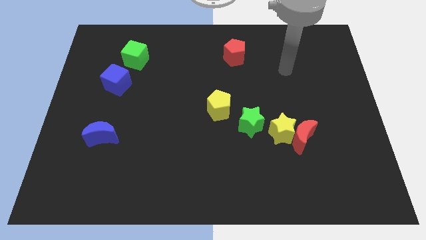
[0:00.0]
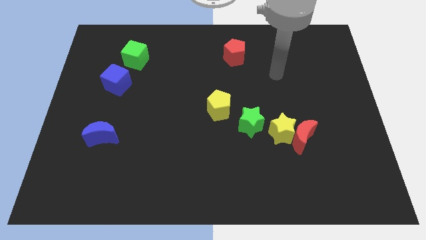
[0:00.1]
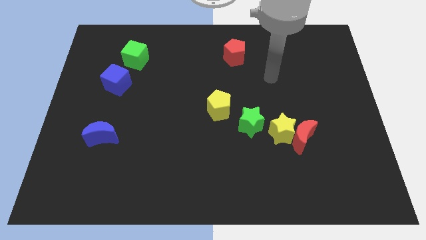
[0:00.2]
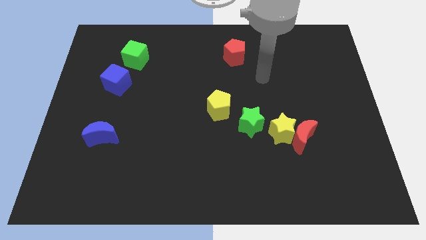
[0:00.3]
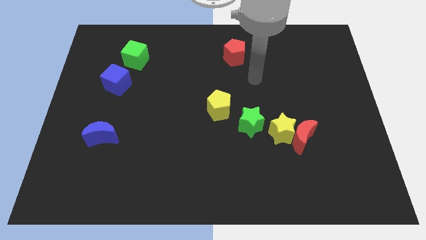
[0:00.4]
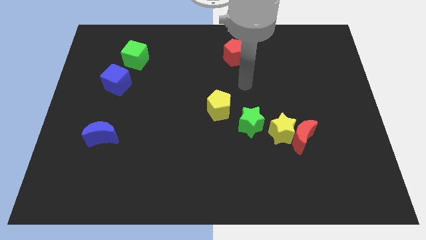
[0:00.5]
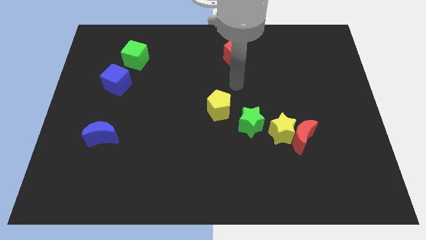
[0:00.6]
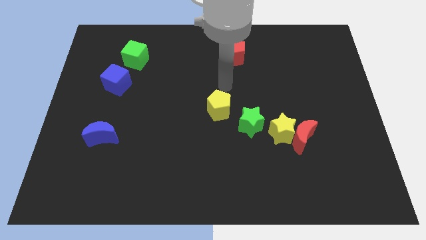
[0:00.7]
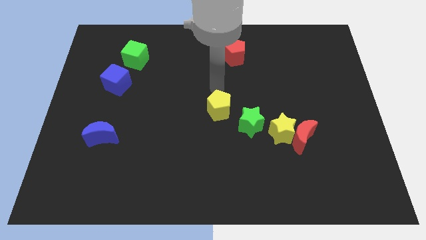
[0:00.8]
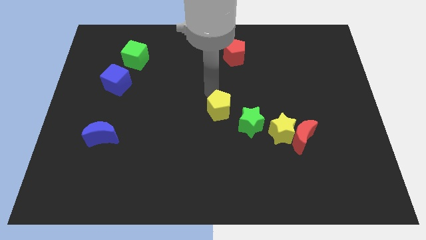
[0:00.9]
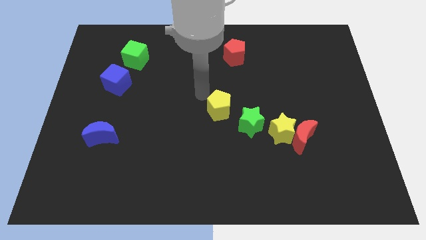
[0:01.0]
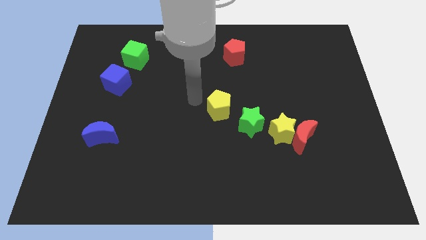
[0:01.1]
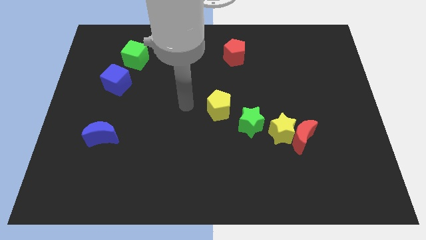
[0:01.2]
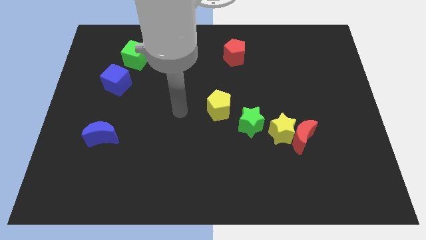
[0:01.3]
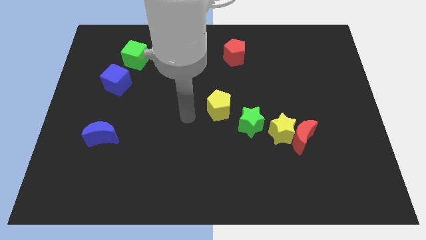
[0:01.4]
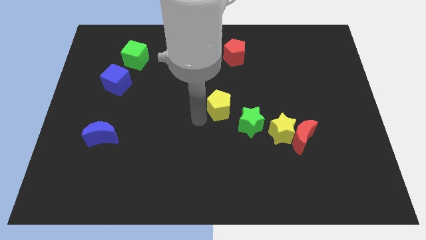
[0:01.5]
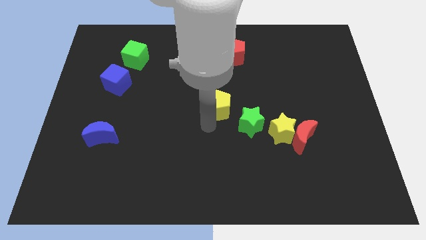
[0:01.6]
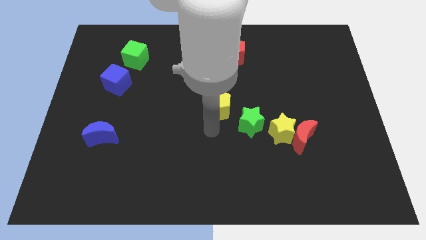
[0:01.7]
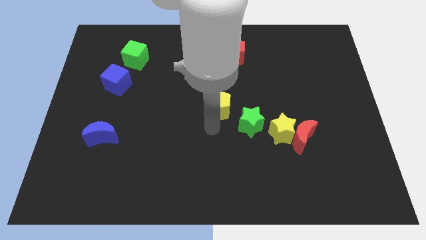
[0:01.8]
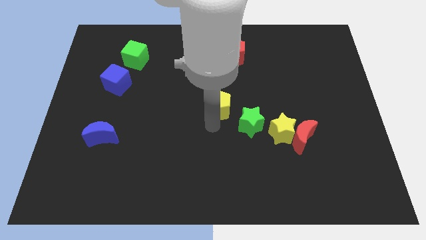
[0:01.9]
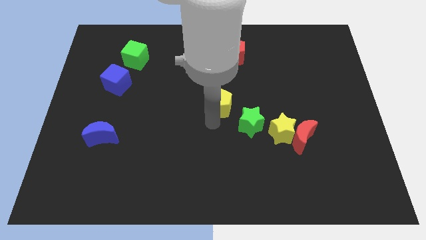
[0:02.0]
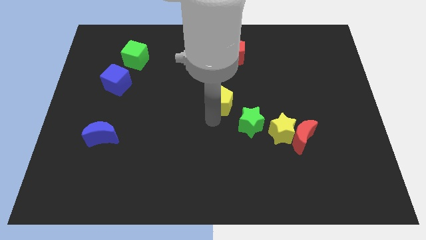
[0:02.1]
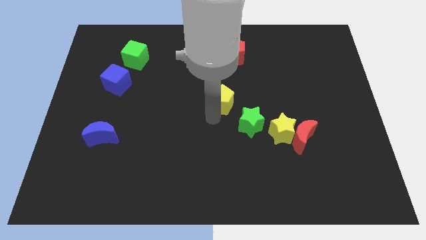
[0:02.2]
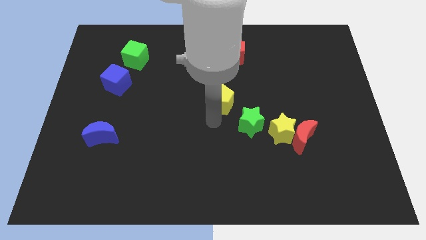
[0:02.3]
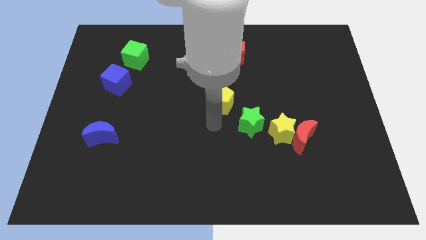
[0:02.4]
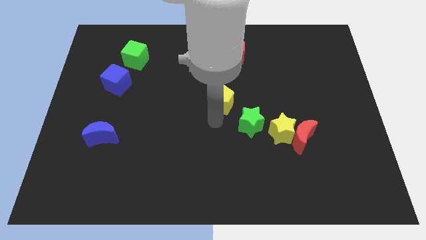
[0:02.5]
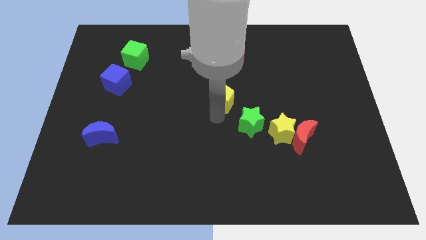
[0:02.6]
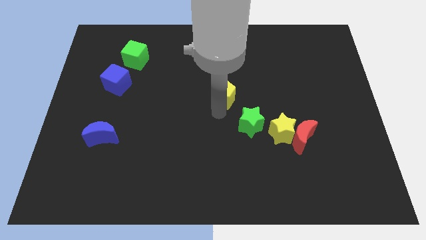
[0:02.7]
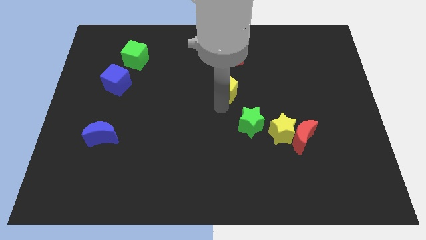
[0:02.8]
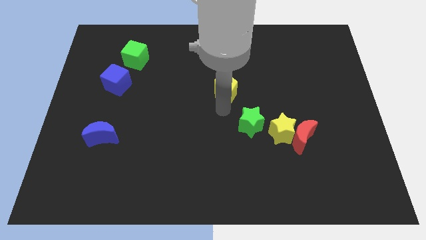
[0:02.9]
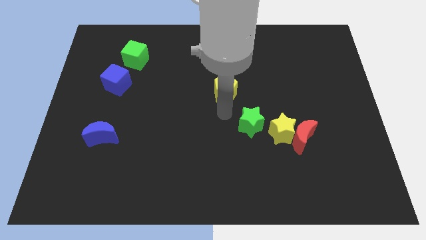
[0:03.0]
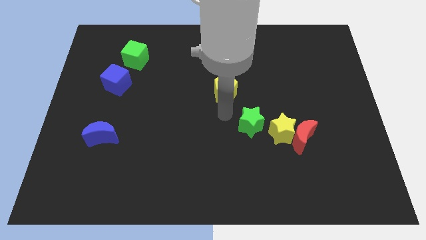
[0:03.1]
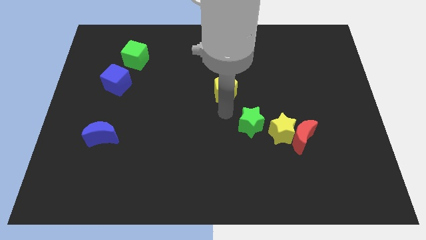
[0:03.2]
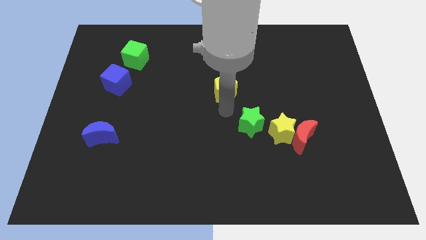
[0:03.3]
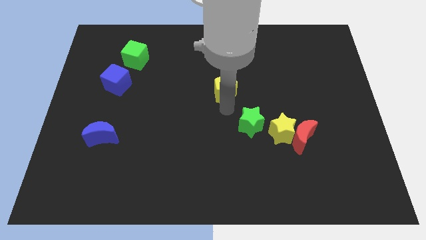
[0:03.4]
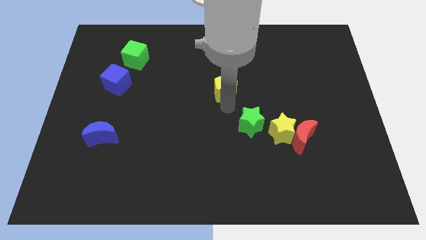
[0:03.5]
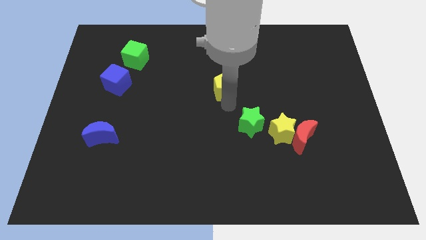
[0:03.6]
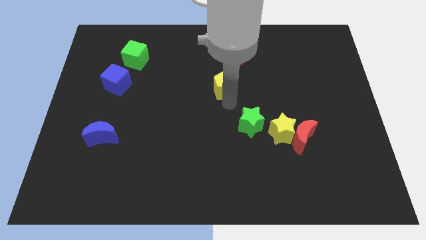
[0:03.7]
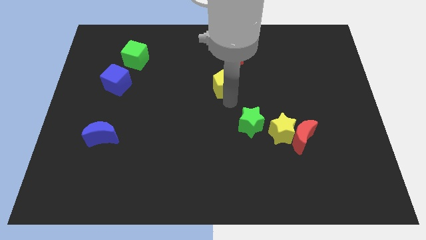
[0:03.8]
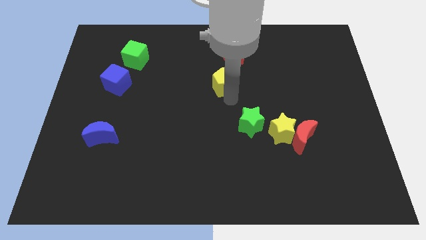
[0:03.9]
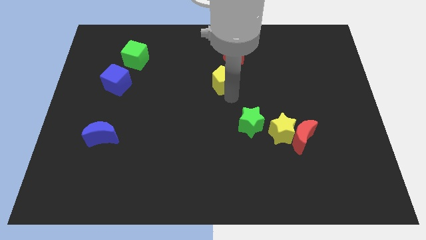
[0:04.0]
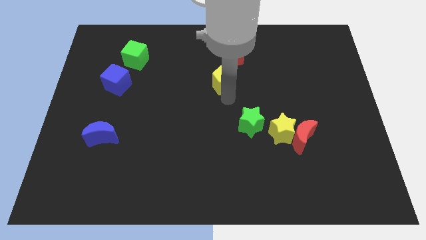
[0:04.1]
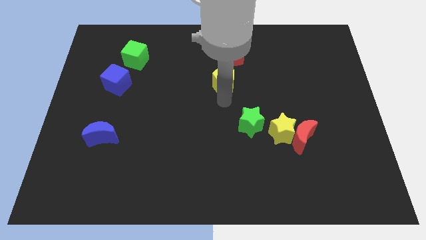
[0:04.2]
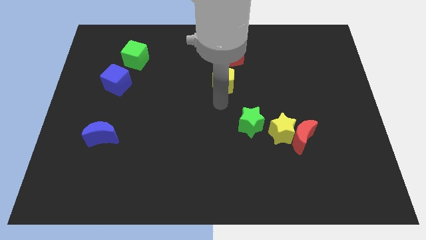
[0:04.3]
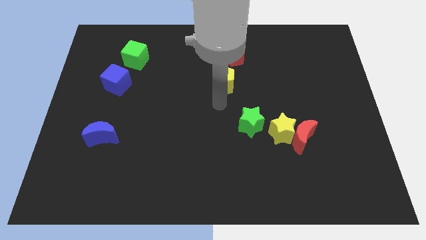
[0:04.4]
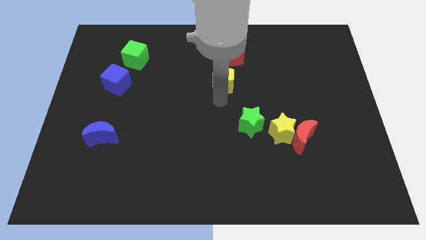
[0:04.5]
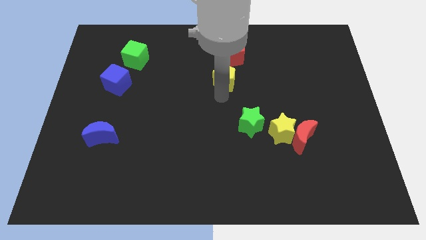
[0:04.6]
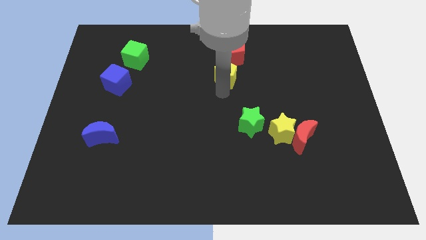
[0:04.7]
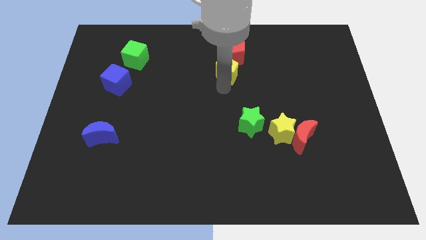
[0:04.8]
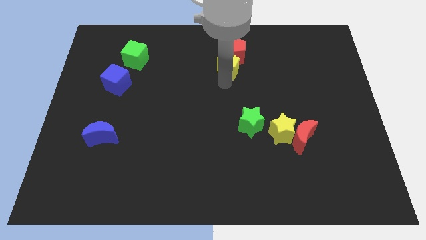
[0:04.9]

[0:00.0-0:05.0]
move the yellow pentagon close to the red pentagon

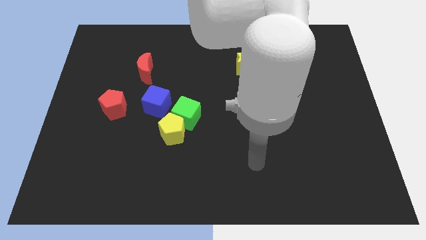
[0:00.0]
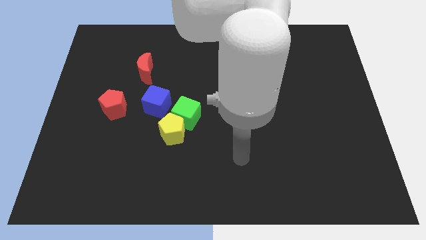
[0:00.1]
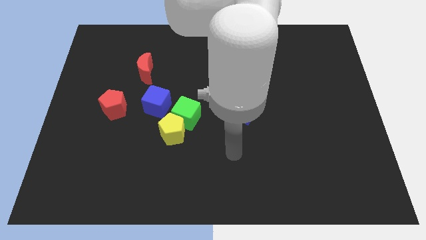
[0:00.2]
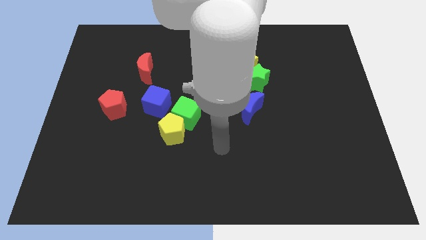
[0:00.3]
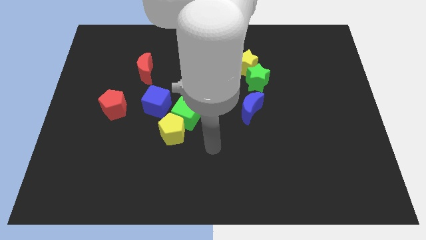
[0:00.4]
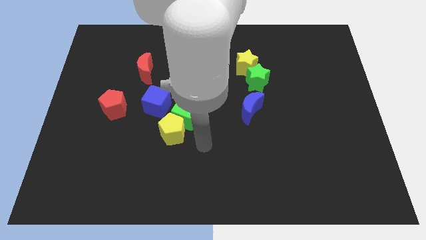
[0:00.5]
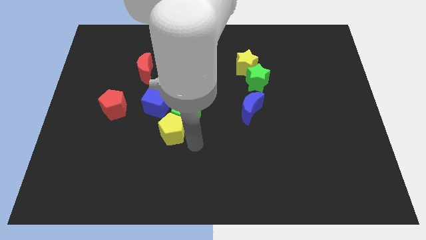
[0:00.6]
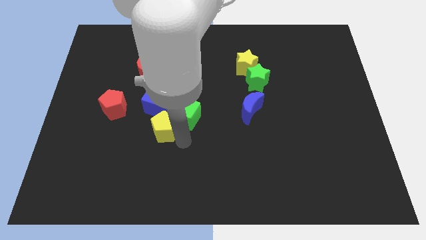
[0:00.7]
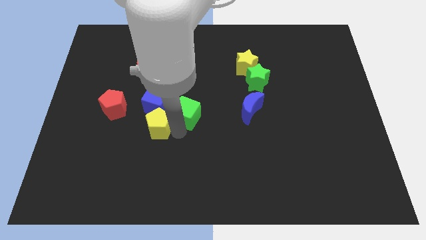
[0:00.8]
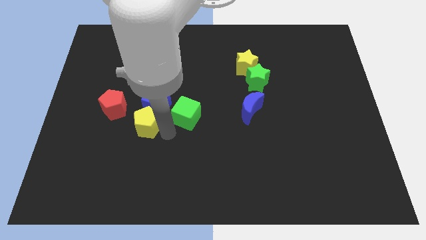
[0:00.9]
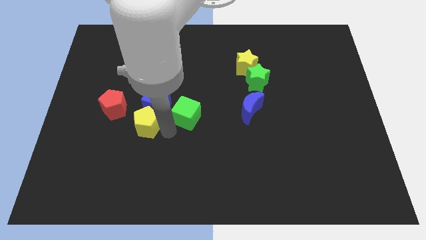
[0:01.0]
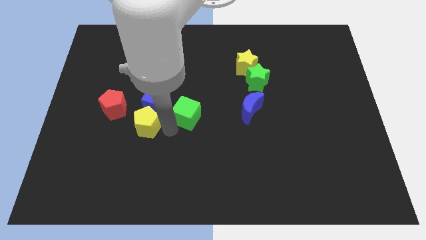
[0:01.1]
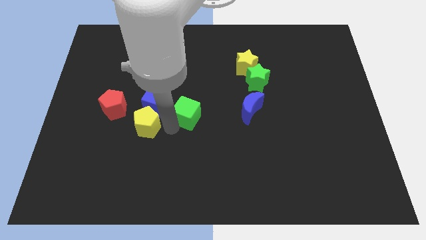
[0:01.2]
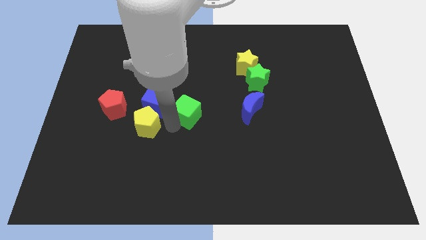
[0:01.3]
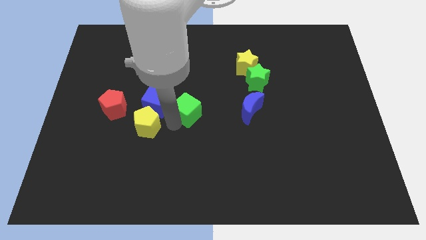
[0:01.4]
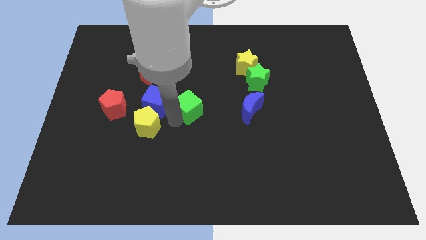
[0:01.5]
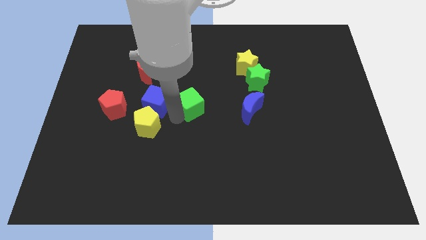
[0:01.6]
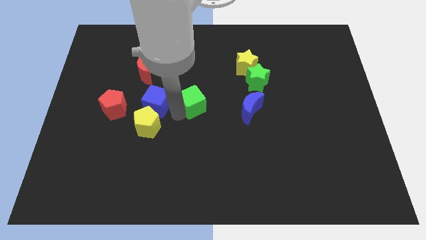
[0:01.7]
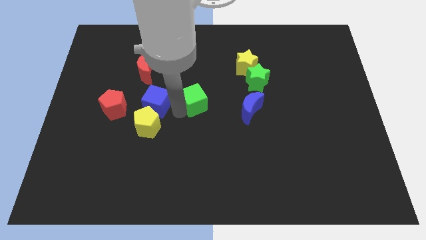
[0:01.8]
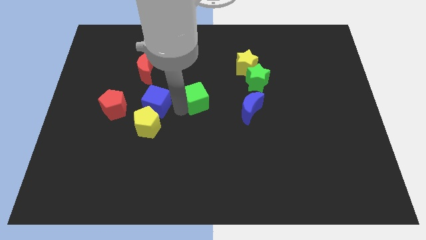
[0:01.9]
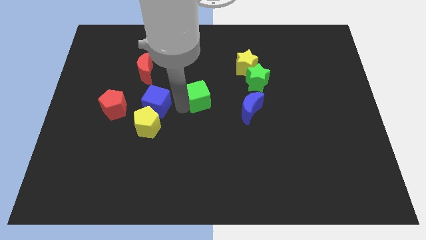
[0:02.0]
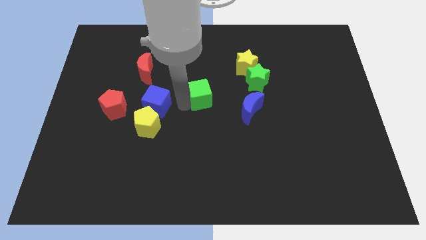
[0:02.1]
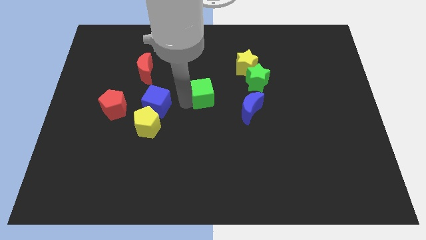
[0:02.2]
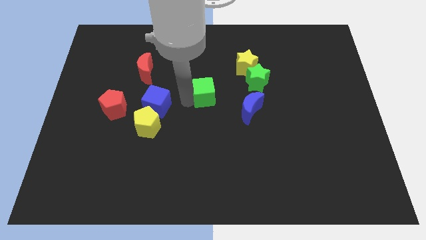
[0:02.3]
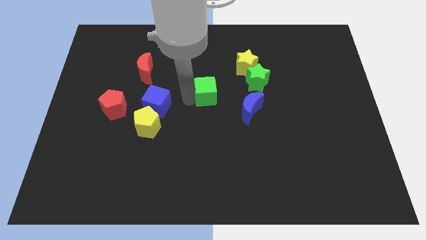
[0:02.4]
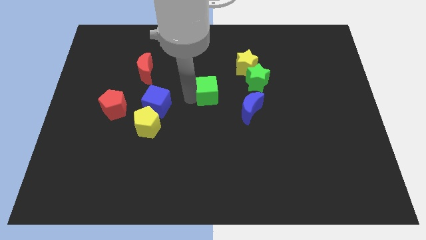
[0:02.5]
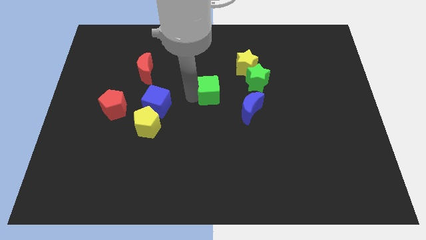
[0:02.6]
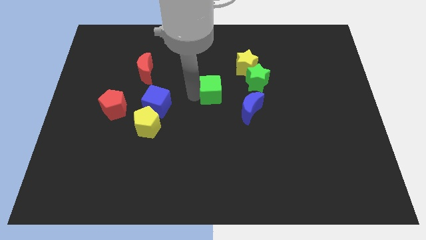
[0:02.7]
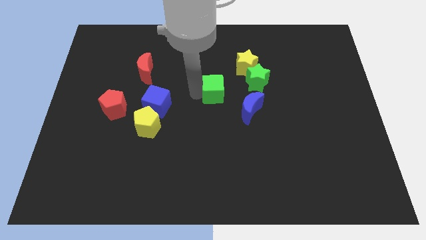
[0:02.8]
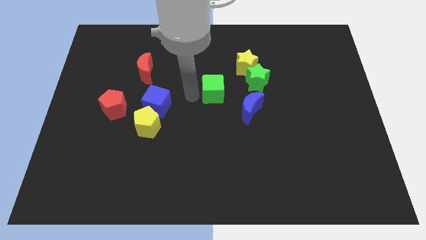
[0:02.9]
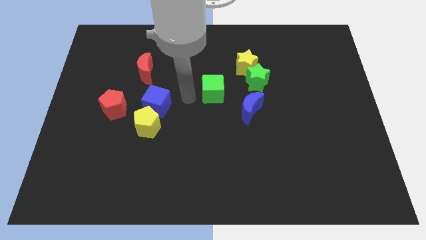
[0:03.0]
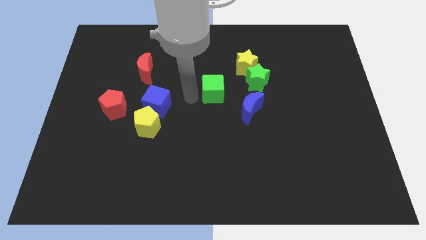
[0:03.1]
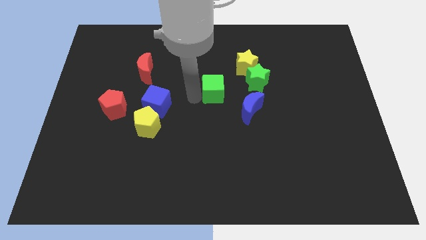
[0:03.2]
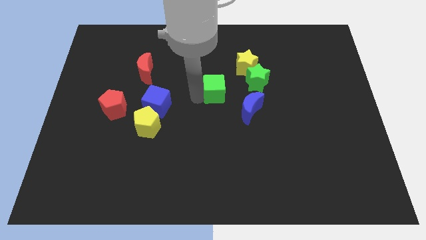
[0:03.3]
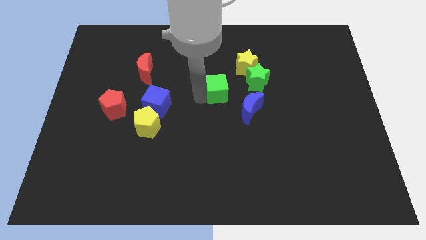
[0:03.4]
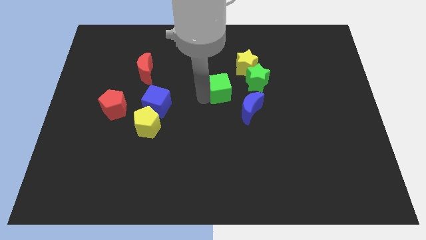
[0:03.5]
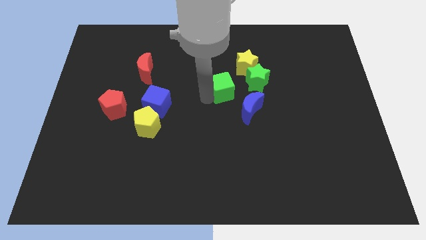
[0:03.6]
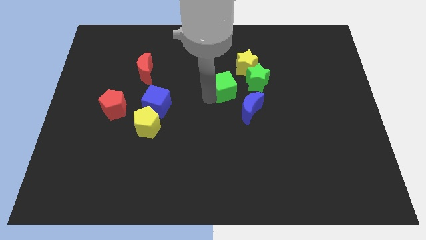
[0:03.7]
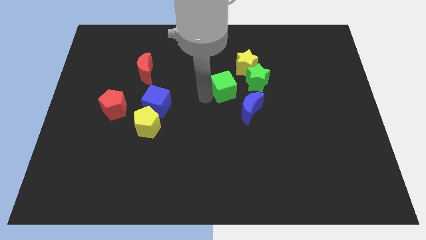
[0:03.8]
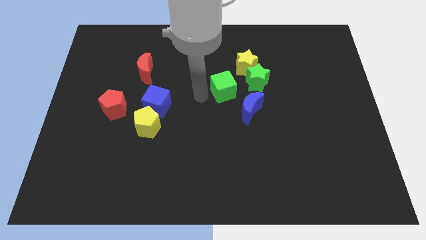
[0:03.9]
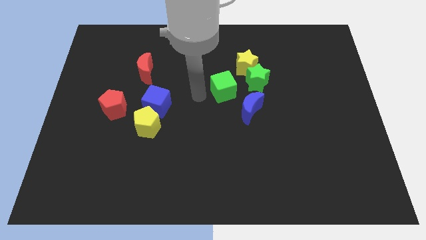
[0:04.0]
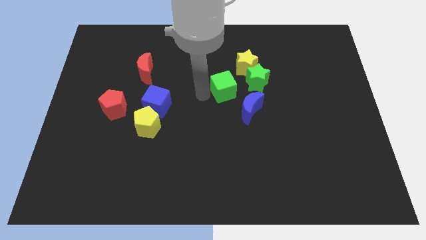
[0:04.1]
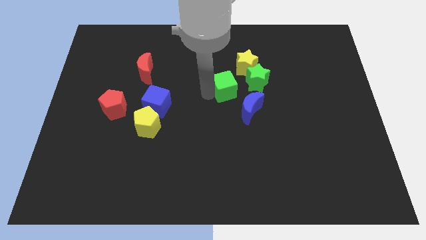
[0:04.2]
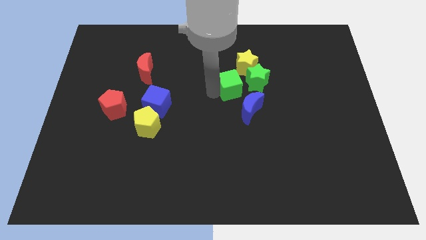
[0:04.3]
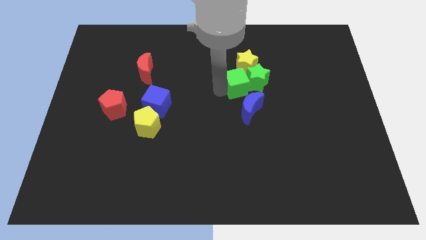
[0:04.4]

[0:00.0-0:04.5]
slide the green cube next to the green star
